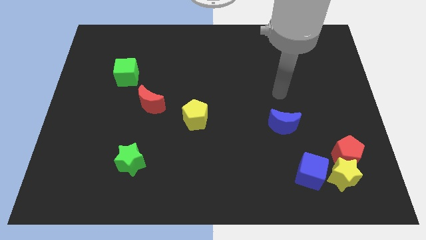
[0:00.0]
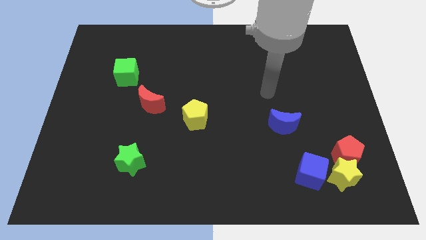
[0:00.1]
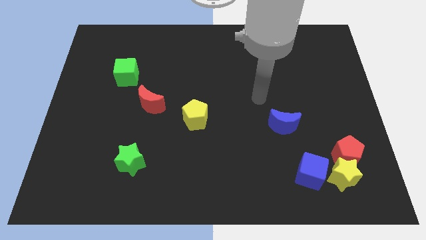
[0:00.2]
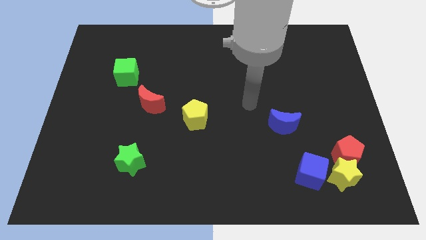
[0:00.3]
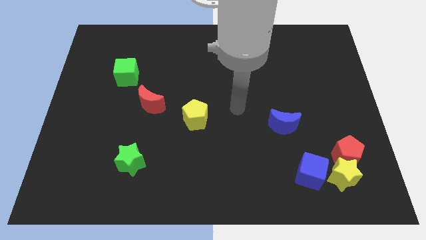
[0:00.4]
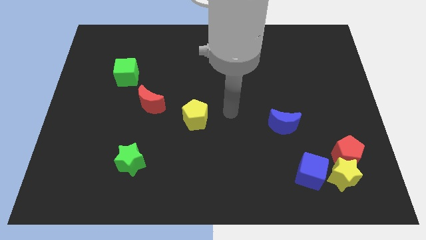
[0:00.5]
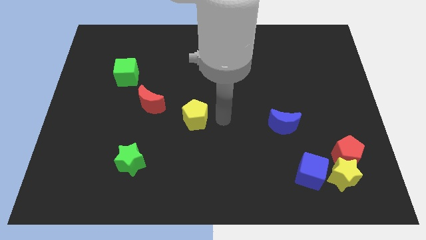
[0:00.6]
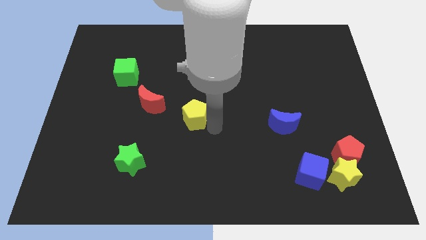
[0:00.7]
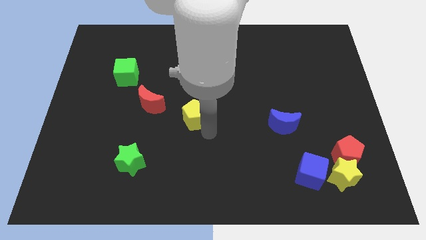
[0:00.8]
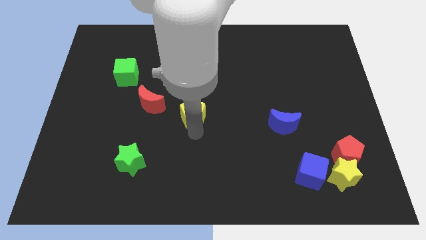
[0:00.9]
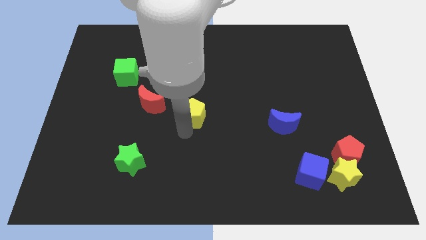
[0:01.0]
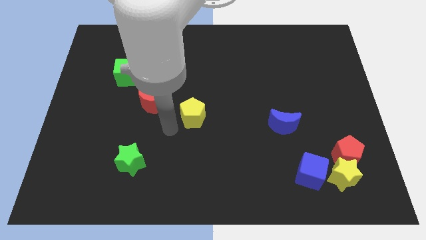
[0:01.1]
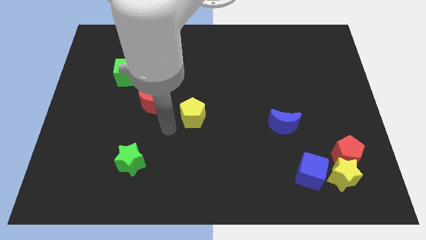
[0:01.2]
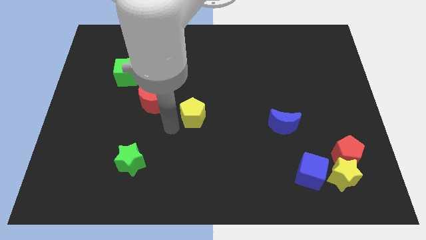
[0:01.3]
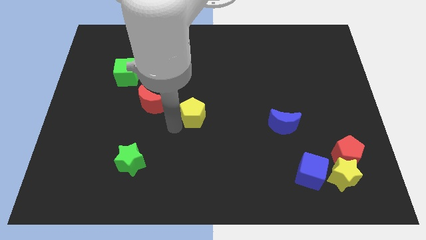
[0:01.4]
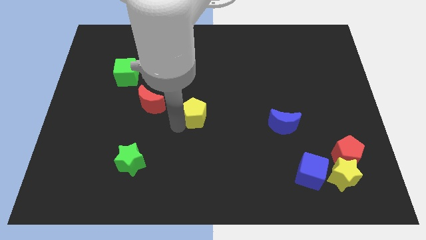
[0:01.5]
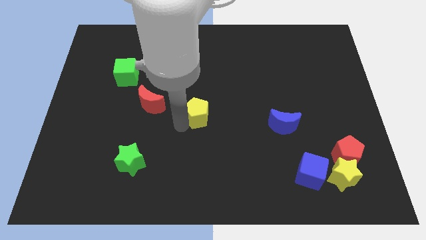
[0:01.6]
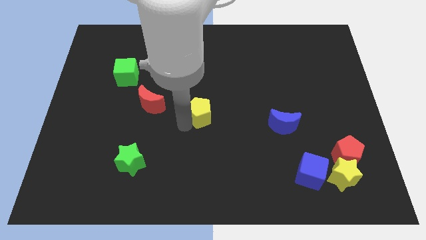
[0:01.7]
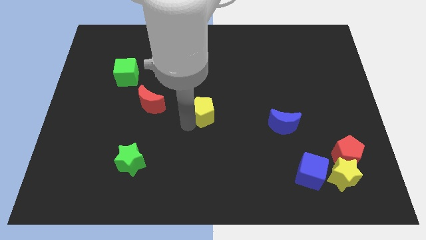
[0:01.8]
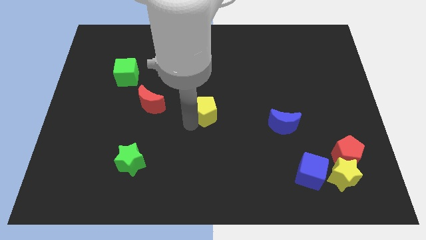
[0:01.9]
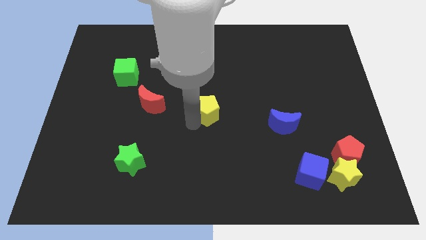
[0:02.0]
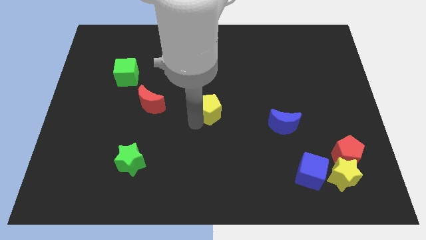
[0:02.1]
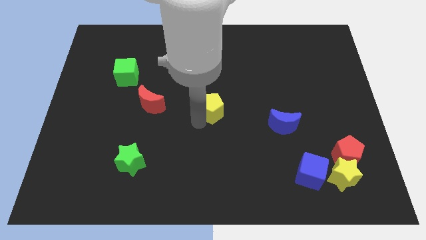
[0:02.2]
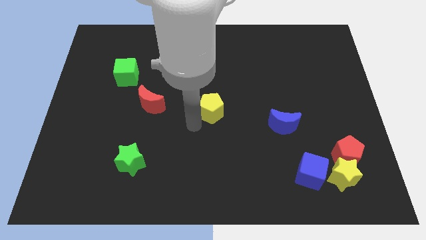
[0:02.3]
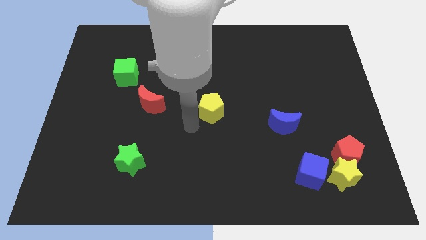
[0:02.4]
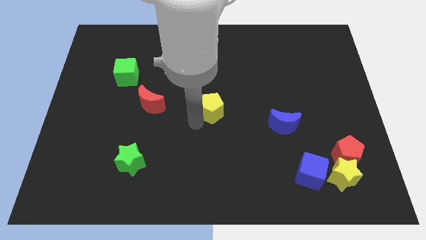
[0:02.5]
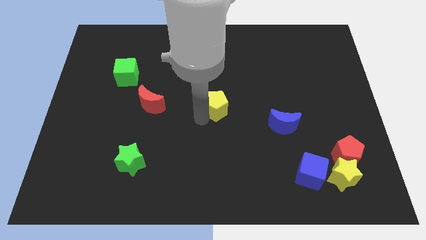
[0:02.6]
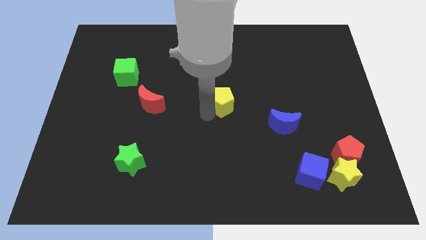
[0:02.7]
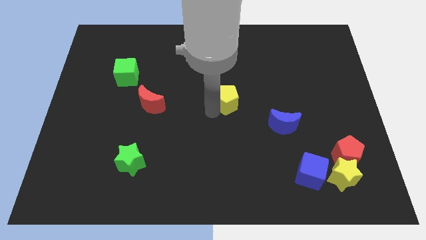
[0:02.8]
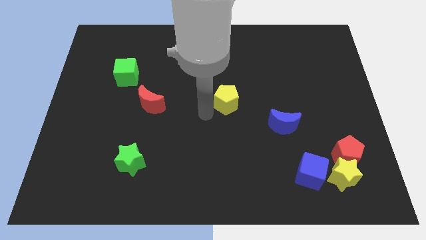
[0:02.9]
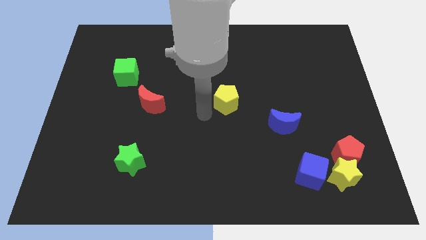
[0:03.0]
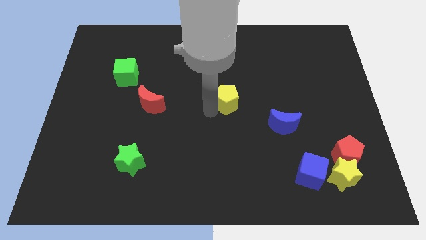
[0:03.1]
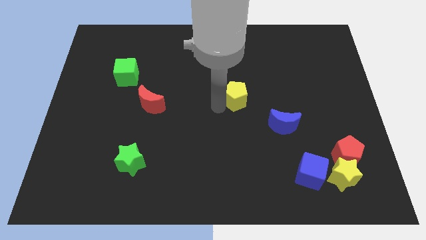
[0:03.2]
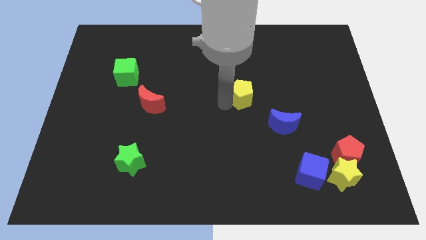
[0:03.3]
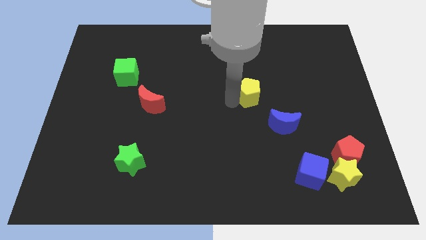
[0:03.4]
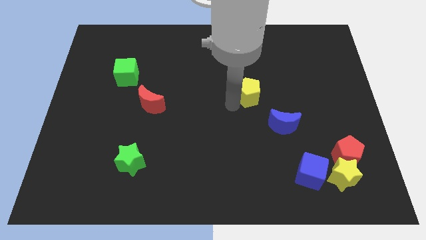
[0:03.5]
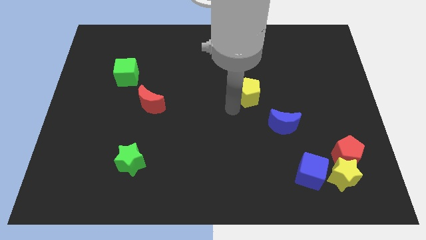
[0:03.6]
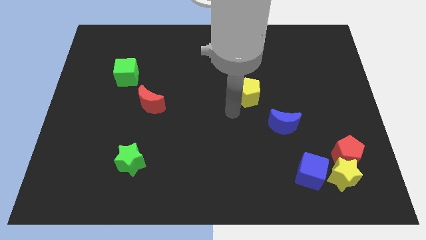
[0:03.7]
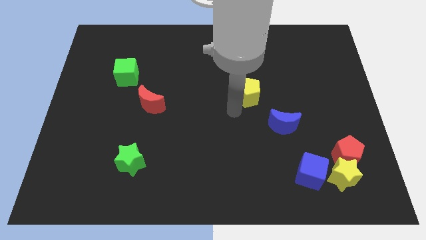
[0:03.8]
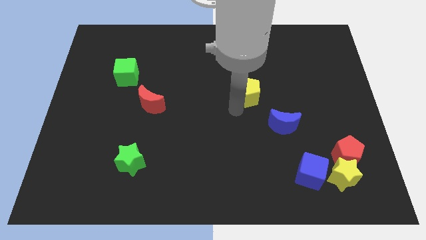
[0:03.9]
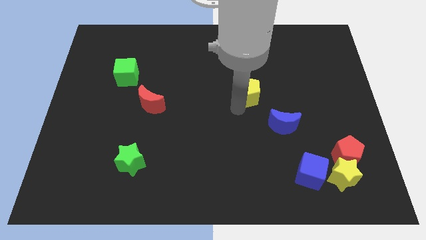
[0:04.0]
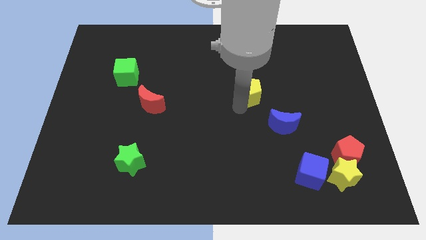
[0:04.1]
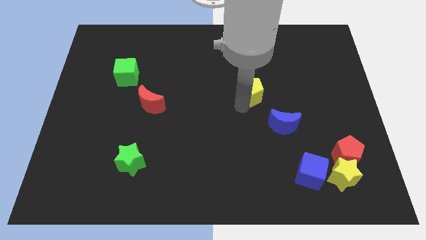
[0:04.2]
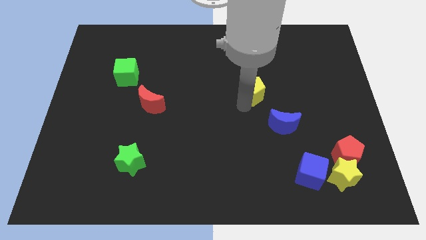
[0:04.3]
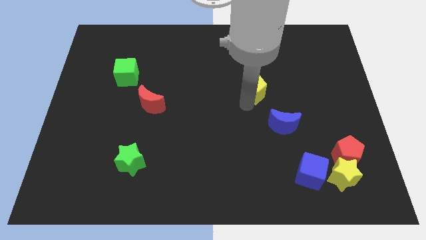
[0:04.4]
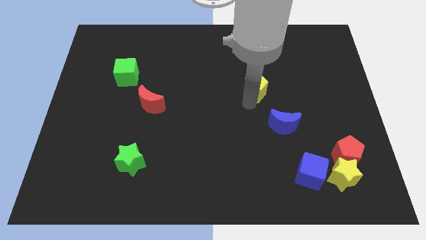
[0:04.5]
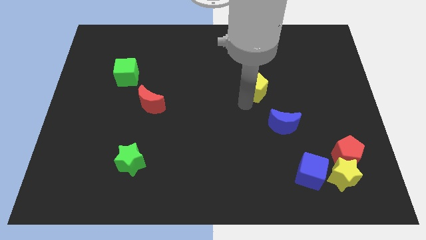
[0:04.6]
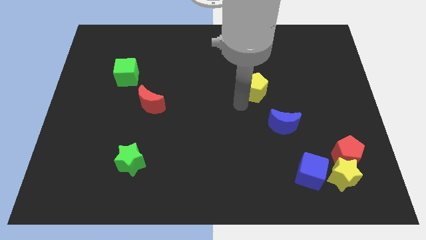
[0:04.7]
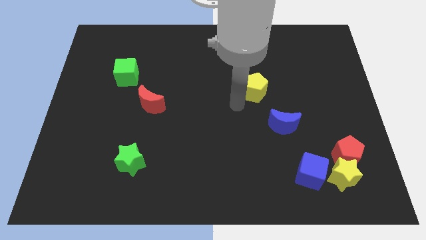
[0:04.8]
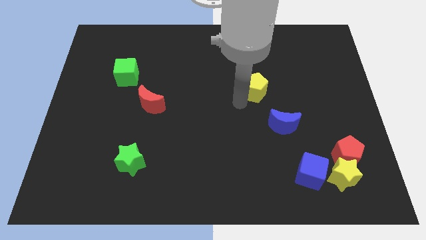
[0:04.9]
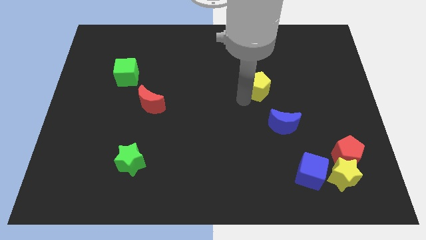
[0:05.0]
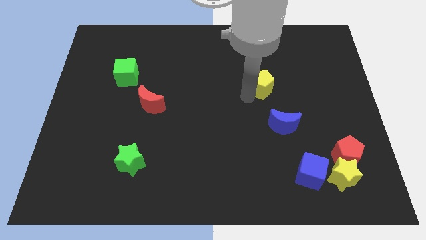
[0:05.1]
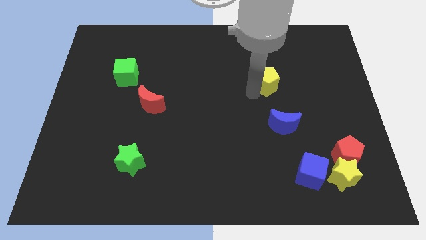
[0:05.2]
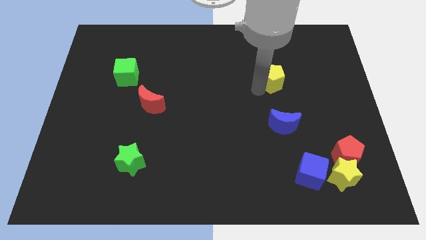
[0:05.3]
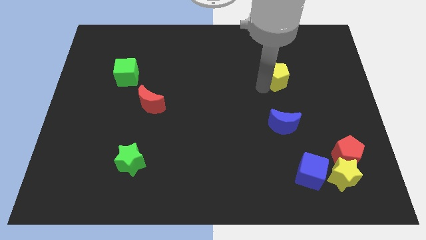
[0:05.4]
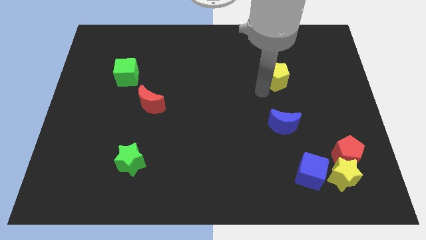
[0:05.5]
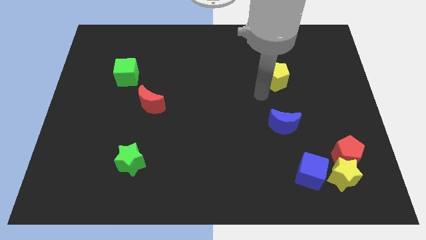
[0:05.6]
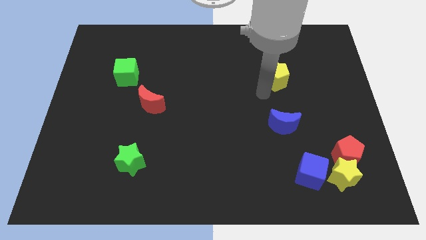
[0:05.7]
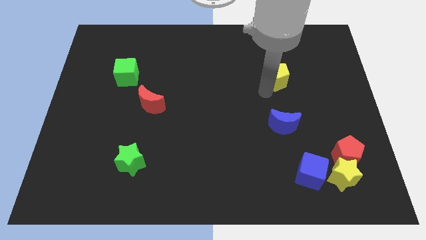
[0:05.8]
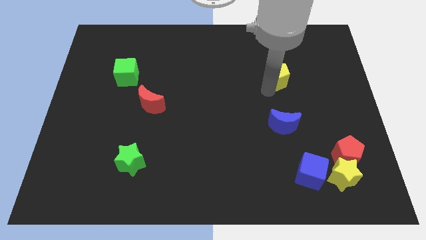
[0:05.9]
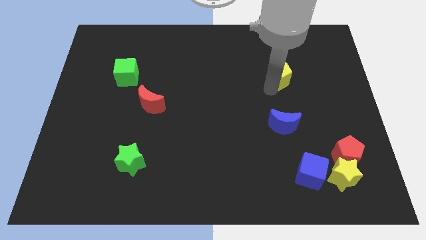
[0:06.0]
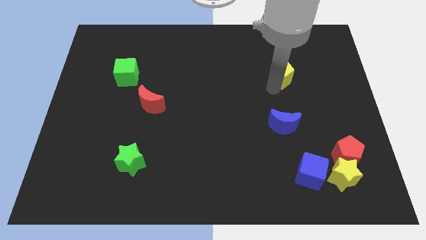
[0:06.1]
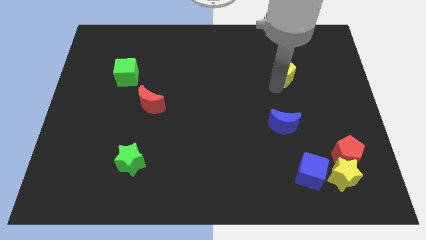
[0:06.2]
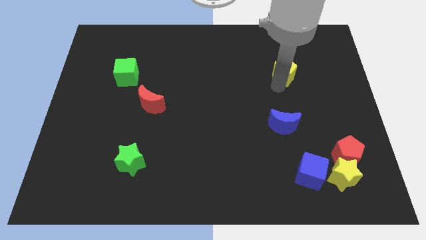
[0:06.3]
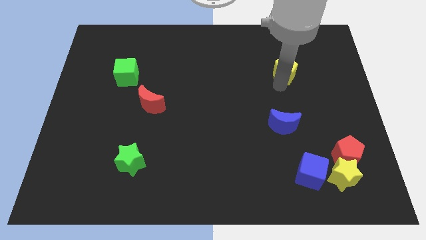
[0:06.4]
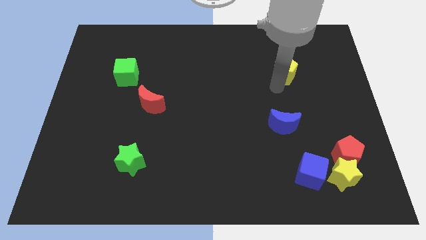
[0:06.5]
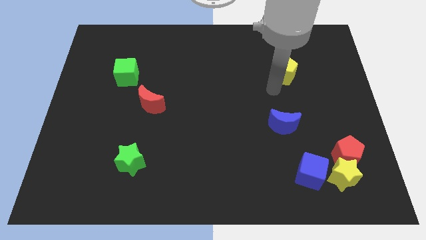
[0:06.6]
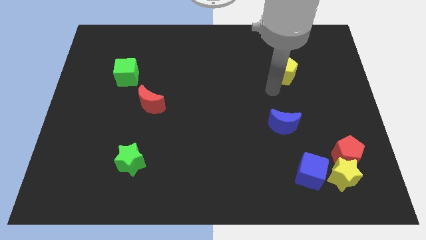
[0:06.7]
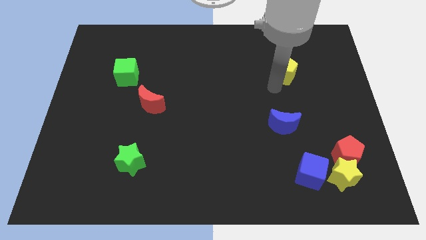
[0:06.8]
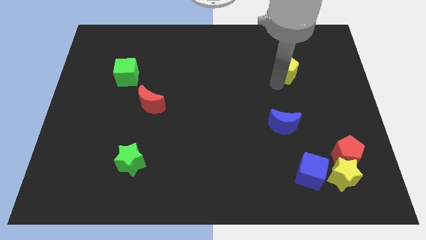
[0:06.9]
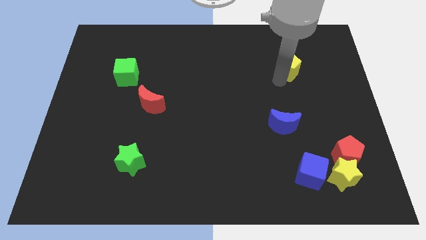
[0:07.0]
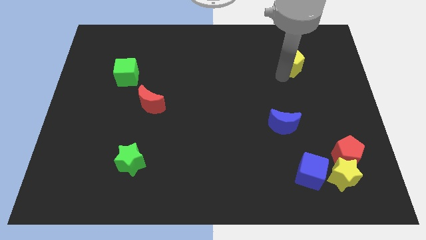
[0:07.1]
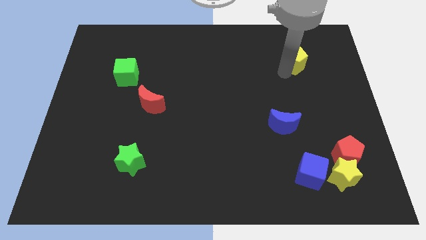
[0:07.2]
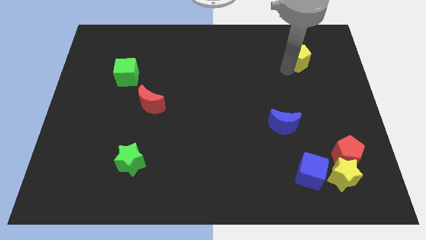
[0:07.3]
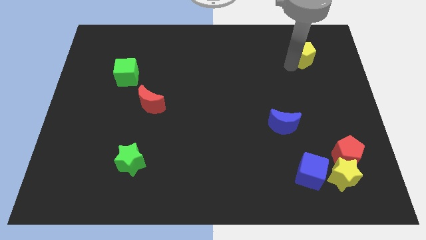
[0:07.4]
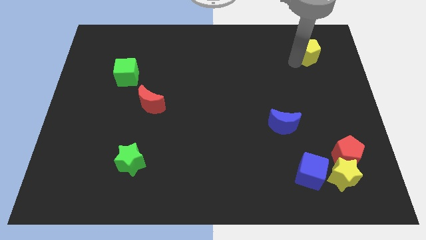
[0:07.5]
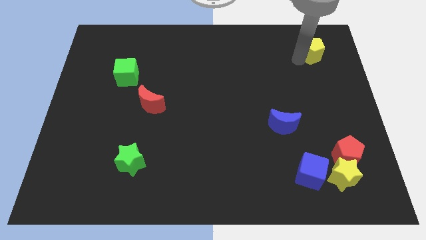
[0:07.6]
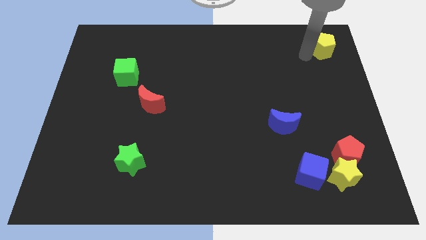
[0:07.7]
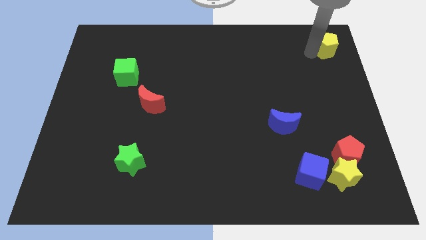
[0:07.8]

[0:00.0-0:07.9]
push the yellow pentagon to the top right of the board
